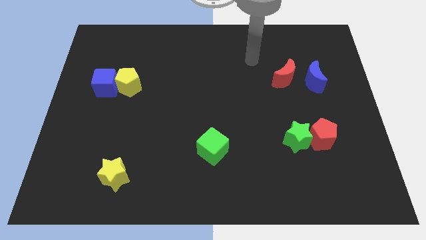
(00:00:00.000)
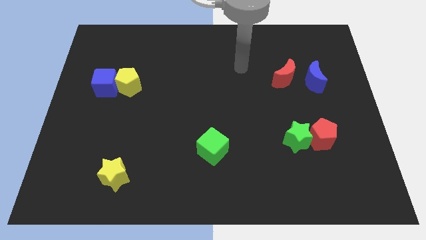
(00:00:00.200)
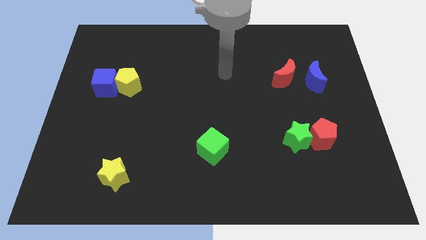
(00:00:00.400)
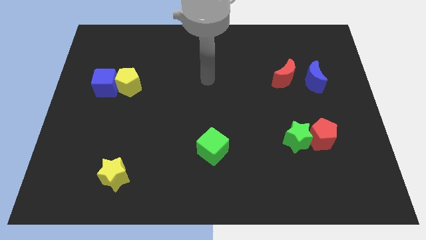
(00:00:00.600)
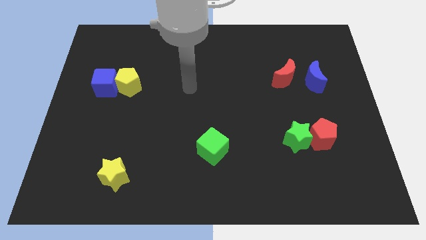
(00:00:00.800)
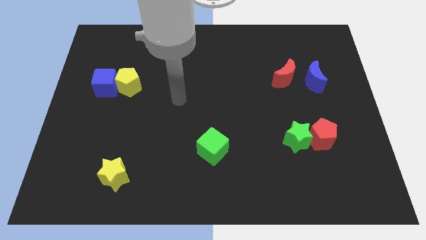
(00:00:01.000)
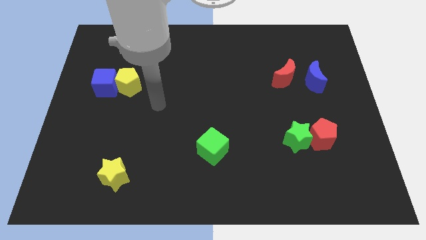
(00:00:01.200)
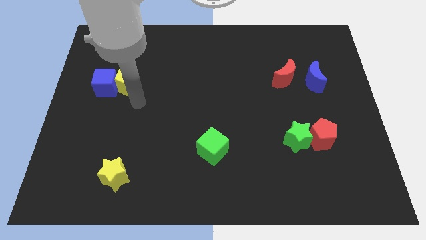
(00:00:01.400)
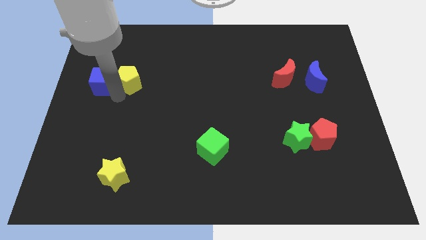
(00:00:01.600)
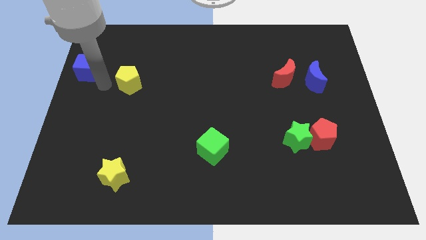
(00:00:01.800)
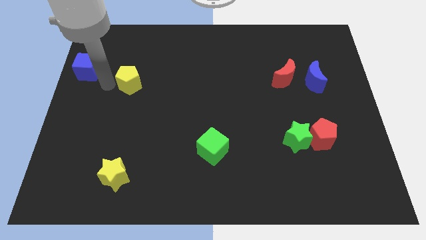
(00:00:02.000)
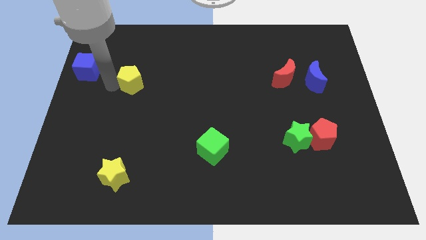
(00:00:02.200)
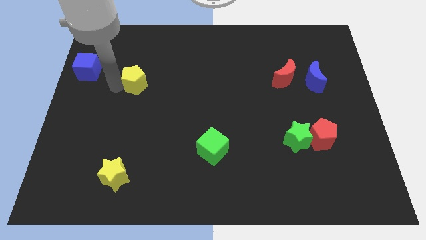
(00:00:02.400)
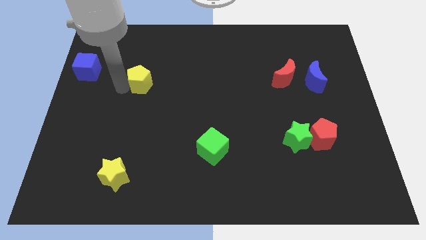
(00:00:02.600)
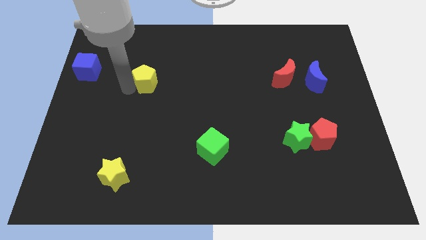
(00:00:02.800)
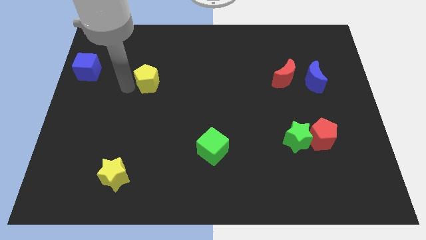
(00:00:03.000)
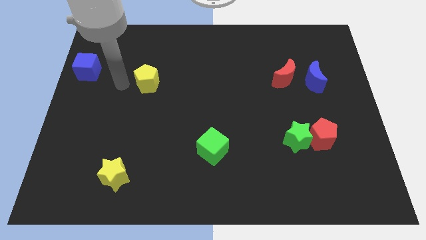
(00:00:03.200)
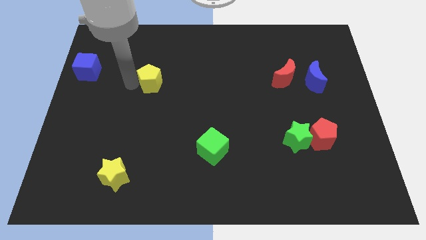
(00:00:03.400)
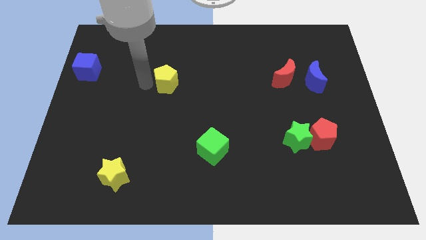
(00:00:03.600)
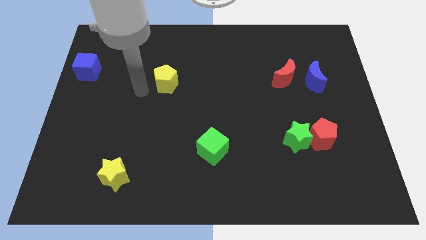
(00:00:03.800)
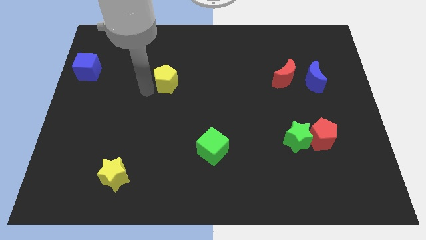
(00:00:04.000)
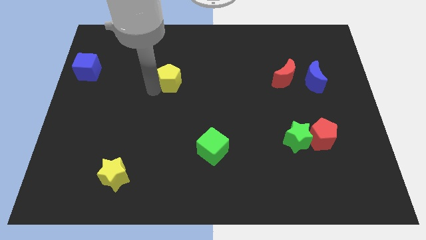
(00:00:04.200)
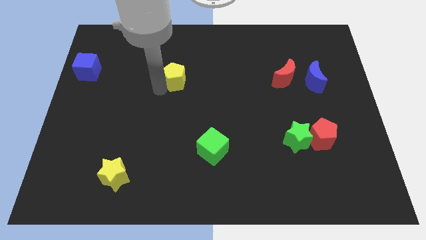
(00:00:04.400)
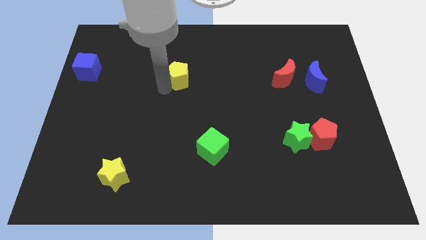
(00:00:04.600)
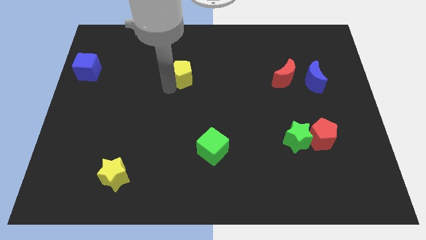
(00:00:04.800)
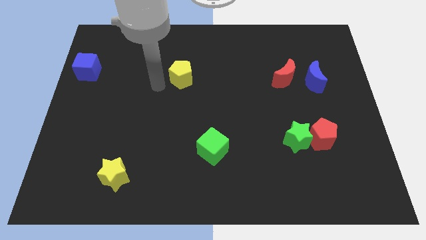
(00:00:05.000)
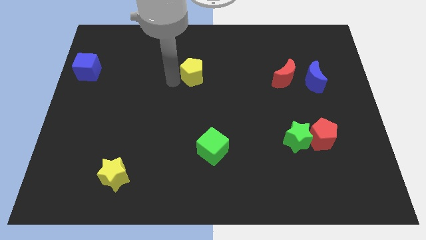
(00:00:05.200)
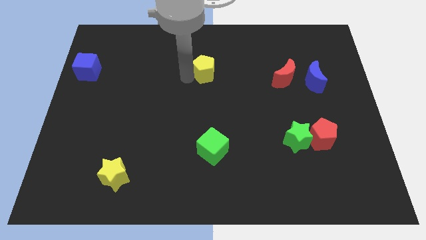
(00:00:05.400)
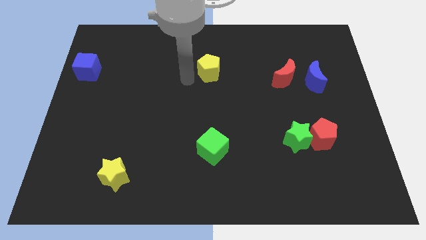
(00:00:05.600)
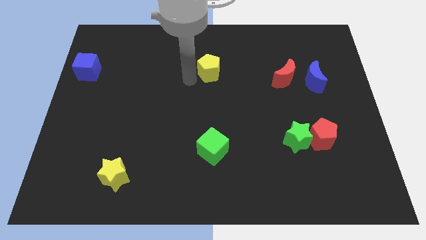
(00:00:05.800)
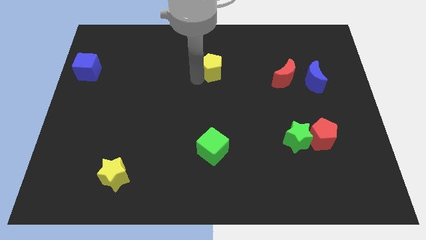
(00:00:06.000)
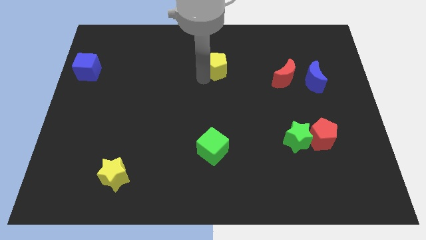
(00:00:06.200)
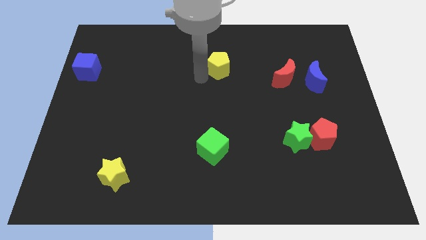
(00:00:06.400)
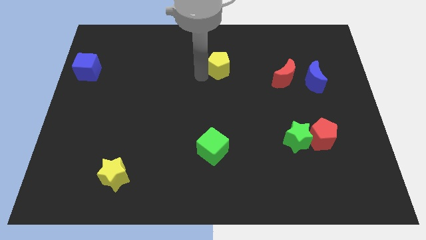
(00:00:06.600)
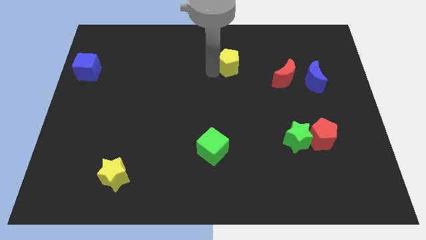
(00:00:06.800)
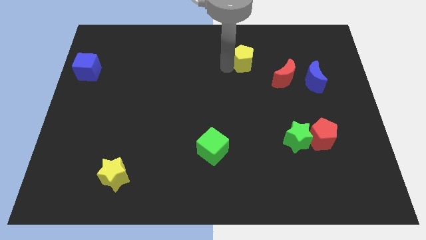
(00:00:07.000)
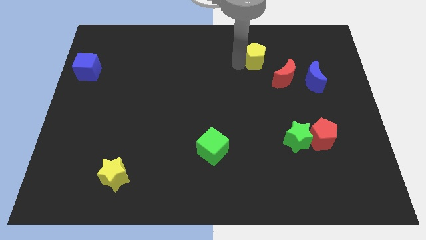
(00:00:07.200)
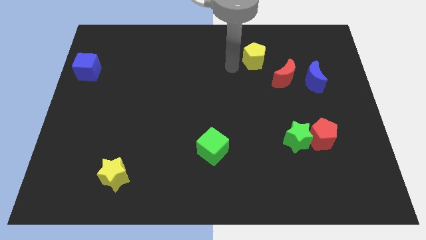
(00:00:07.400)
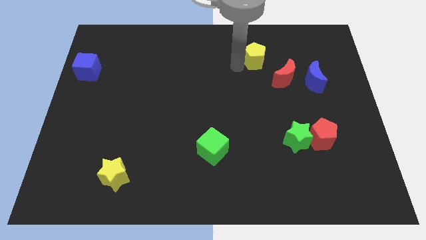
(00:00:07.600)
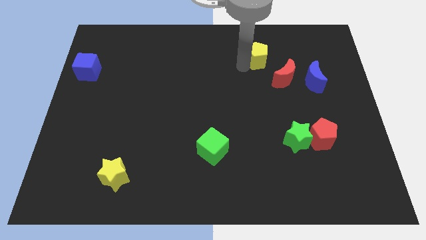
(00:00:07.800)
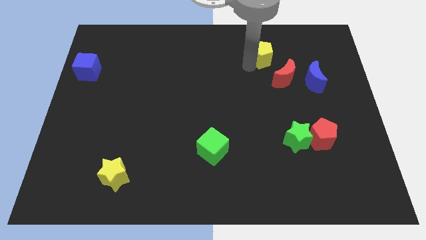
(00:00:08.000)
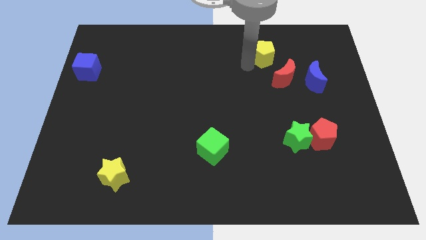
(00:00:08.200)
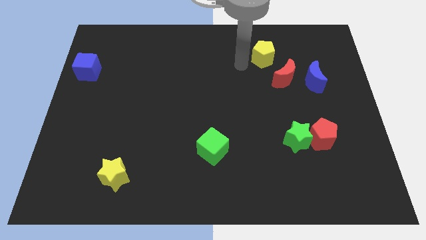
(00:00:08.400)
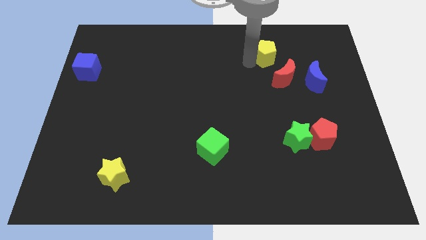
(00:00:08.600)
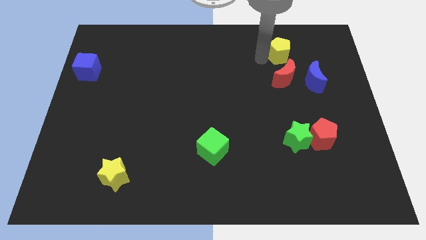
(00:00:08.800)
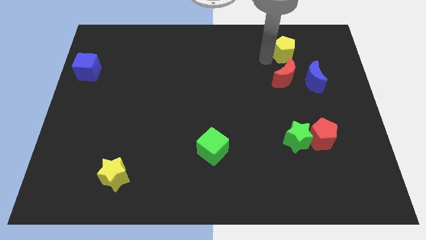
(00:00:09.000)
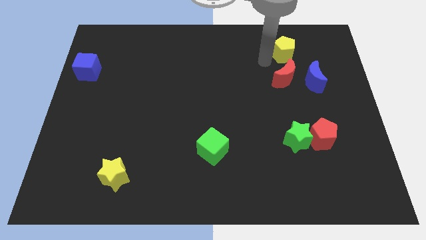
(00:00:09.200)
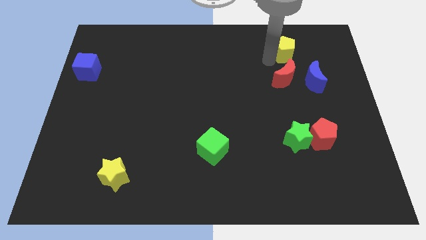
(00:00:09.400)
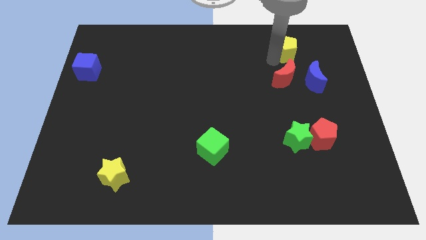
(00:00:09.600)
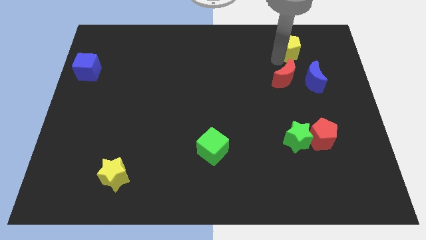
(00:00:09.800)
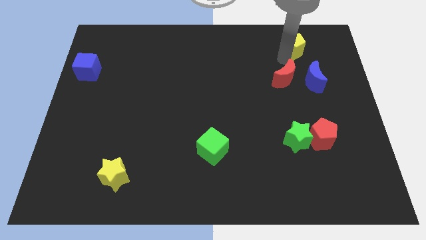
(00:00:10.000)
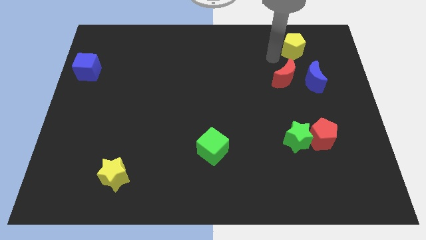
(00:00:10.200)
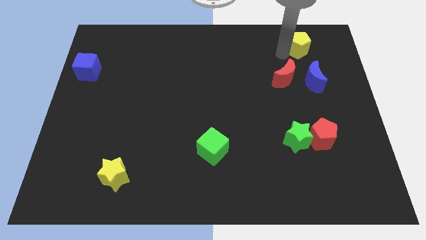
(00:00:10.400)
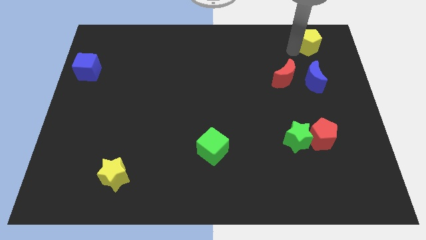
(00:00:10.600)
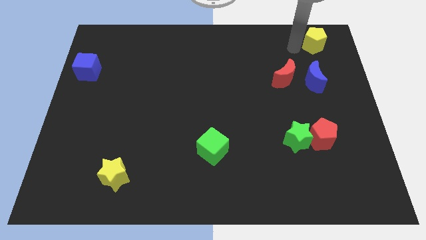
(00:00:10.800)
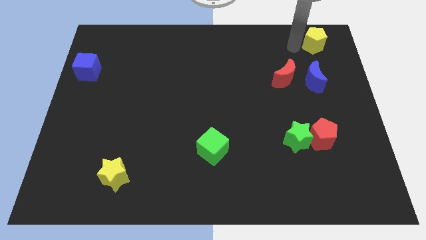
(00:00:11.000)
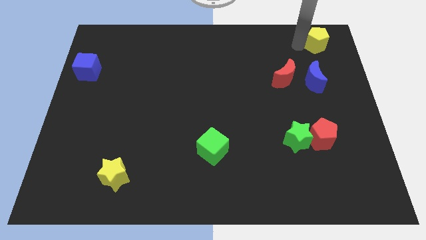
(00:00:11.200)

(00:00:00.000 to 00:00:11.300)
move the yellow pentagon to the top right corner
